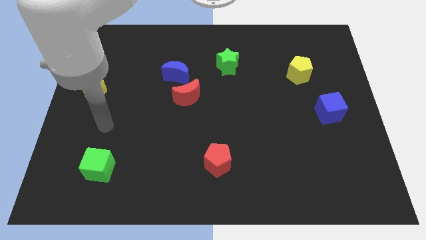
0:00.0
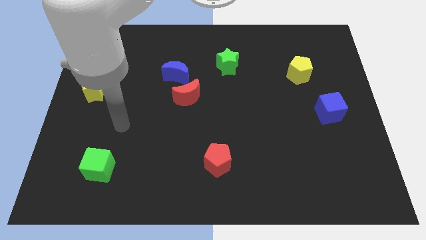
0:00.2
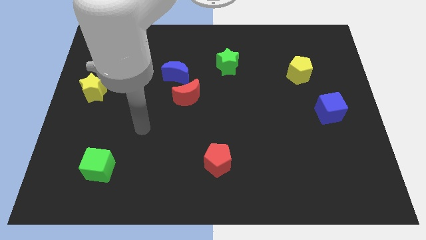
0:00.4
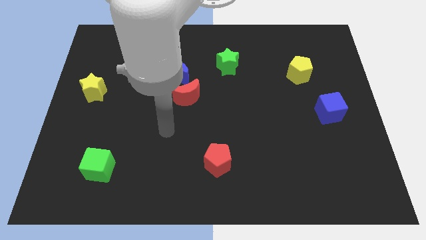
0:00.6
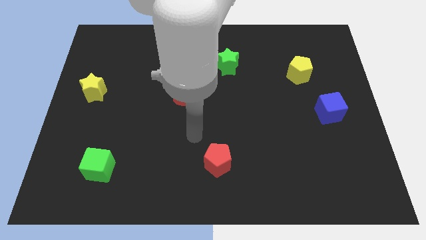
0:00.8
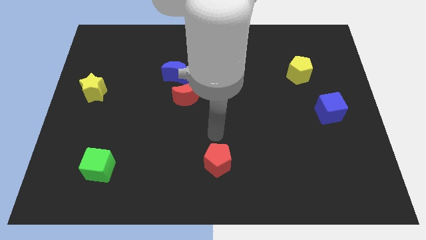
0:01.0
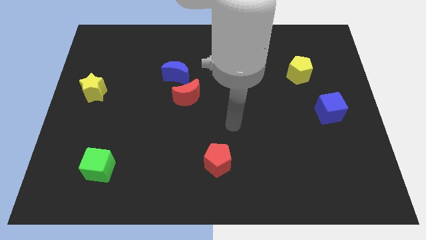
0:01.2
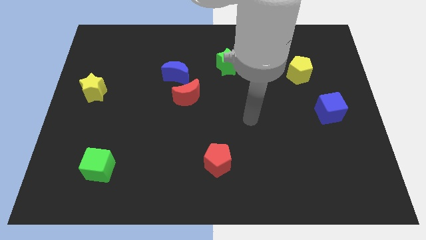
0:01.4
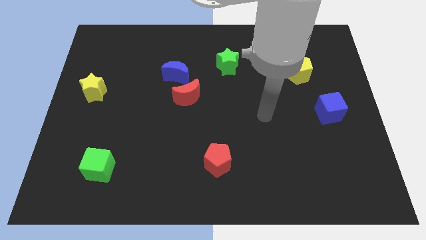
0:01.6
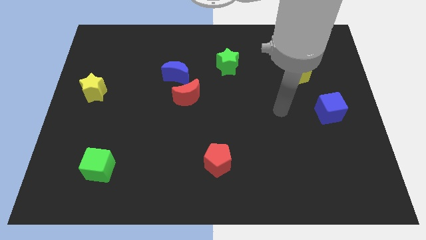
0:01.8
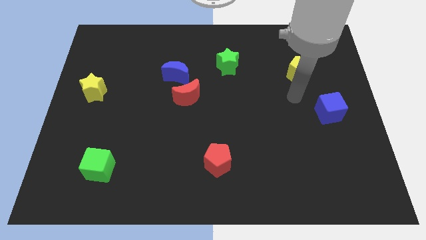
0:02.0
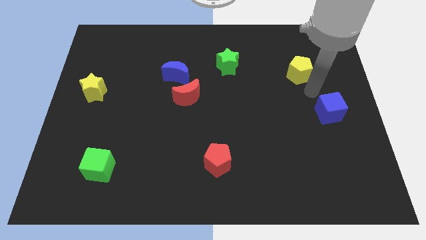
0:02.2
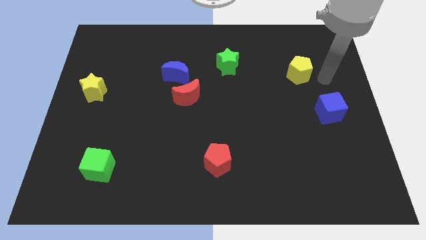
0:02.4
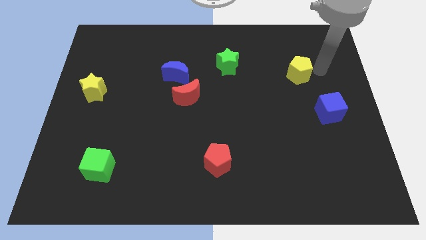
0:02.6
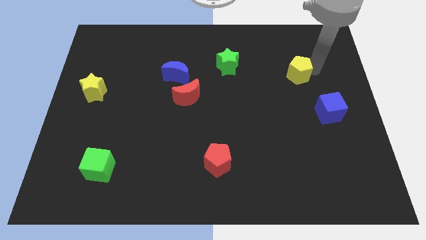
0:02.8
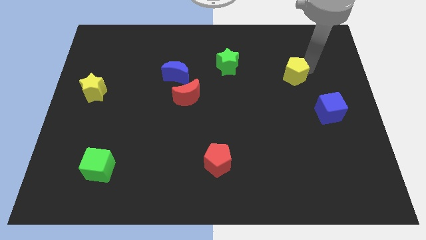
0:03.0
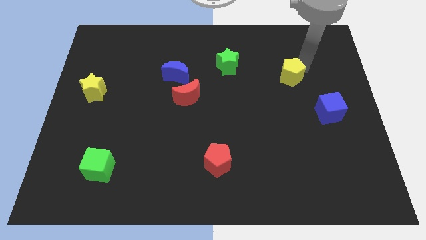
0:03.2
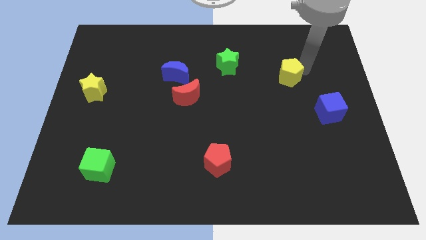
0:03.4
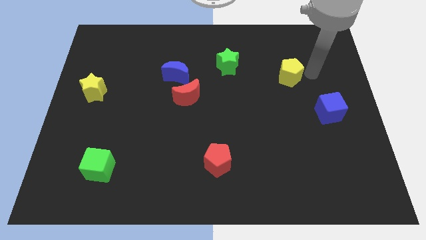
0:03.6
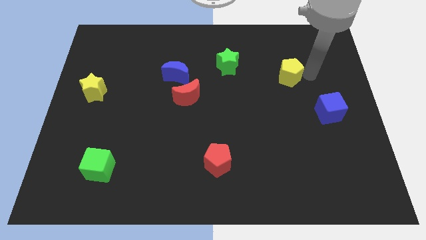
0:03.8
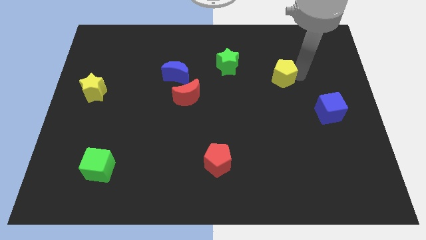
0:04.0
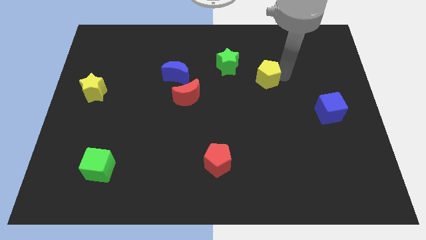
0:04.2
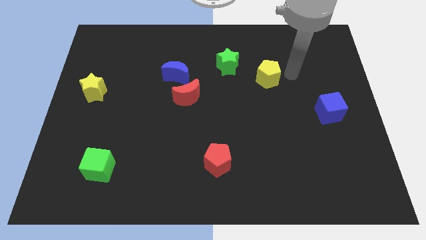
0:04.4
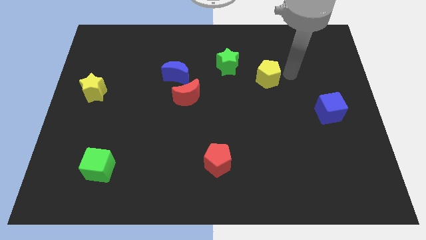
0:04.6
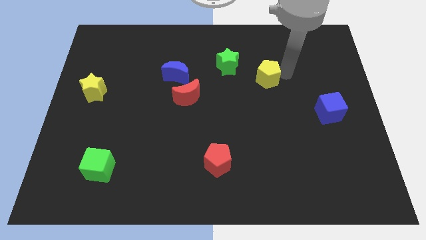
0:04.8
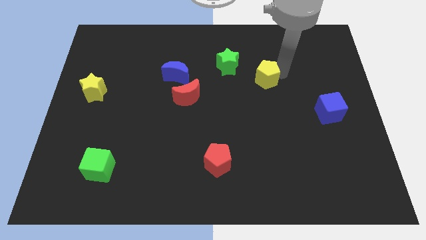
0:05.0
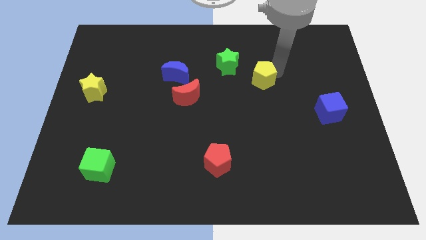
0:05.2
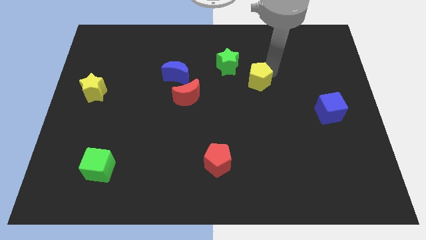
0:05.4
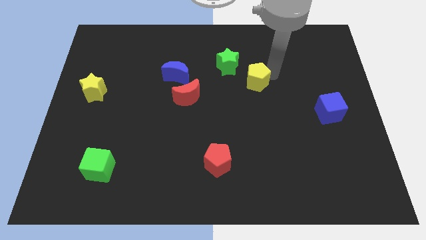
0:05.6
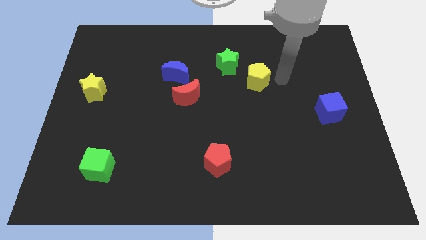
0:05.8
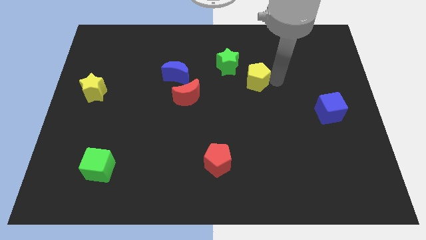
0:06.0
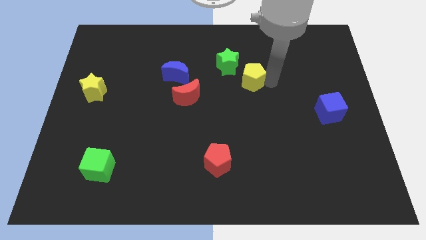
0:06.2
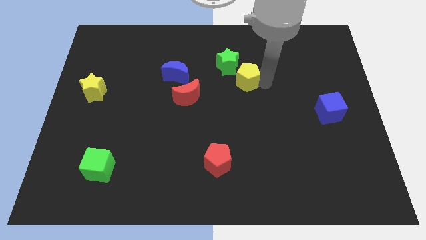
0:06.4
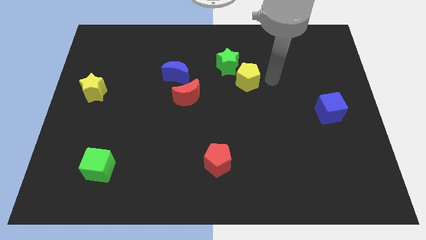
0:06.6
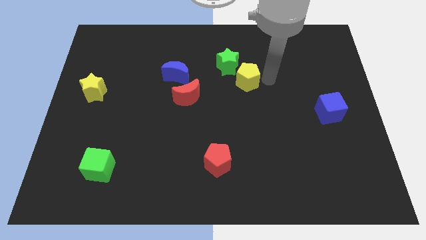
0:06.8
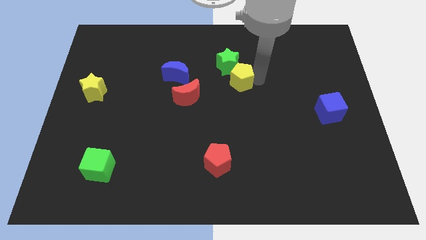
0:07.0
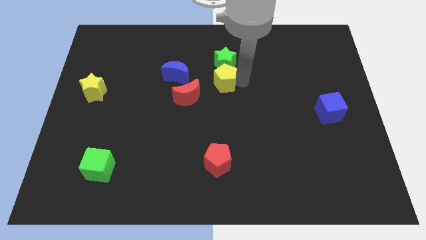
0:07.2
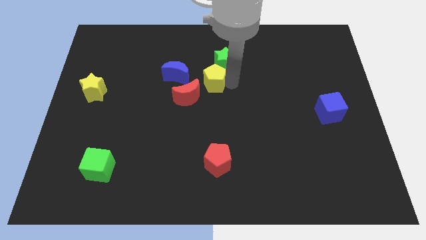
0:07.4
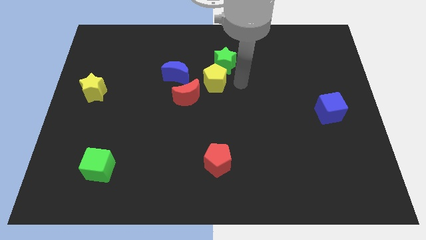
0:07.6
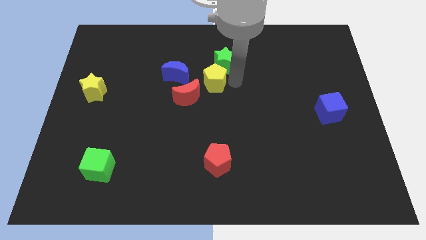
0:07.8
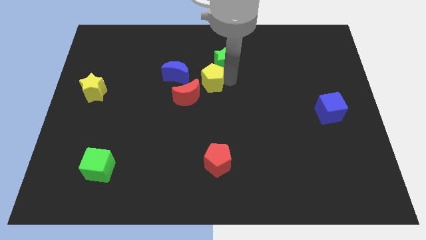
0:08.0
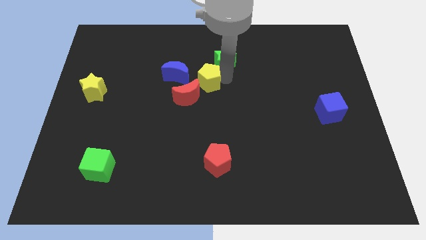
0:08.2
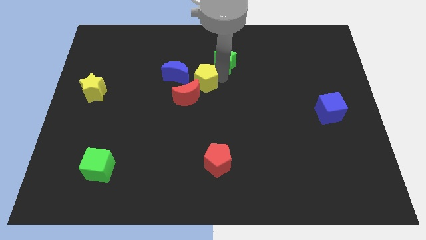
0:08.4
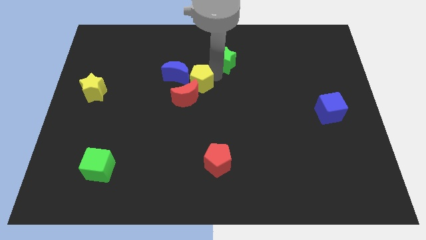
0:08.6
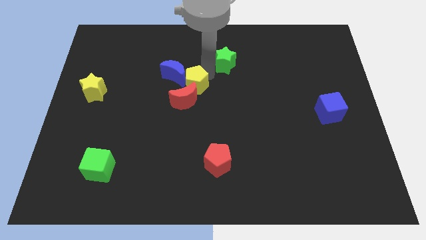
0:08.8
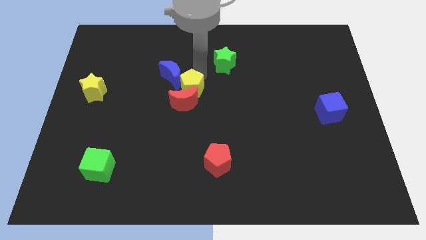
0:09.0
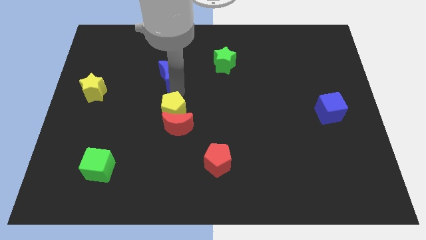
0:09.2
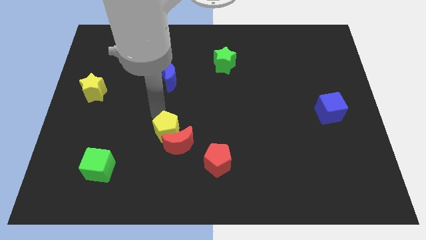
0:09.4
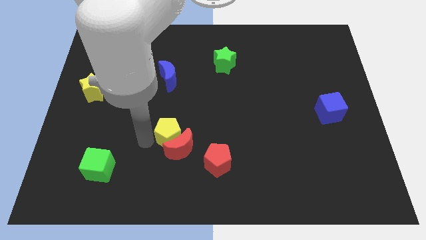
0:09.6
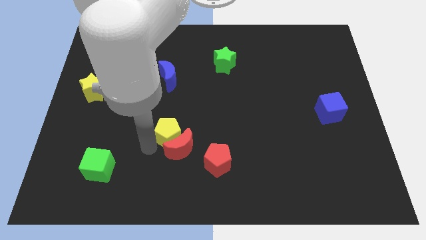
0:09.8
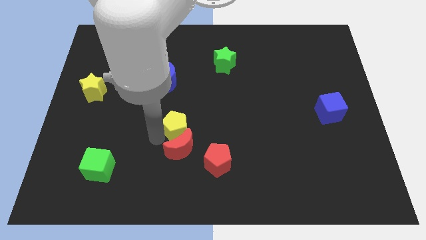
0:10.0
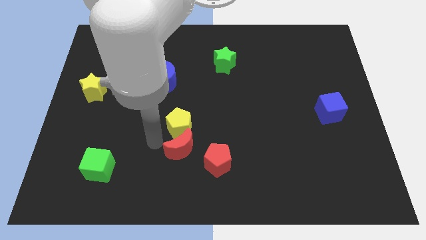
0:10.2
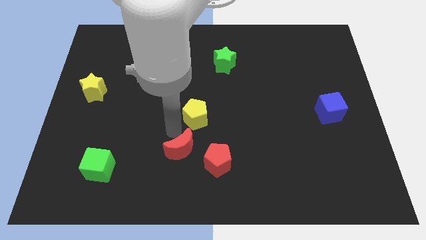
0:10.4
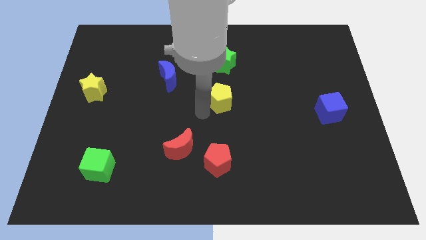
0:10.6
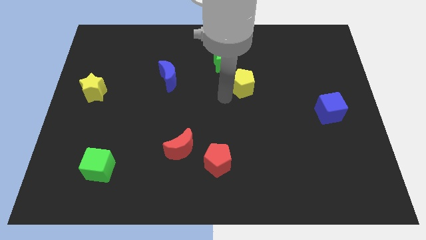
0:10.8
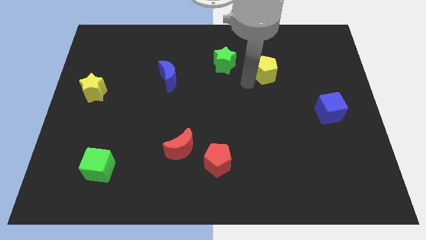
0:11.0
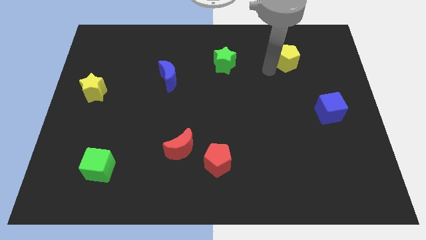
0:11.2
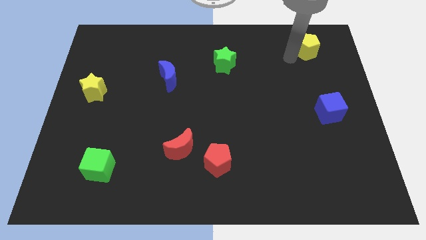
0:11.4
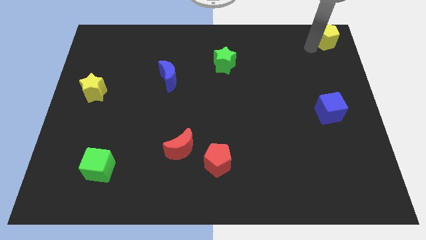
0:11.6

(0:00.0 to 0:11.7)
put the yellow pentagon to the top right corner
